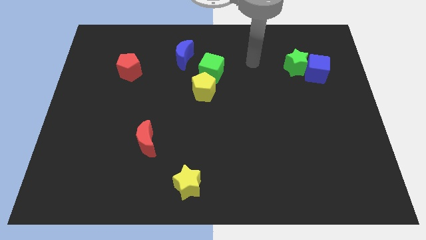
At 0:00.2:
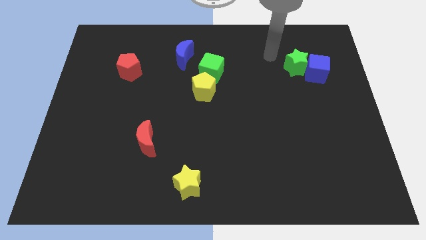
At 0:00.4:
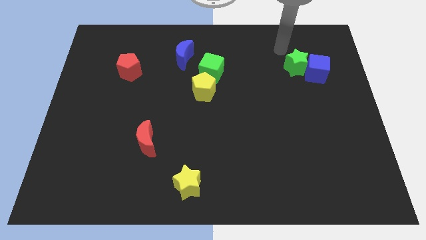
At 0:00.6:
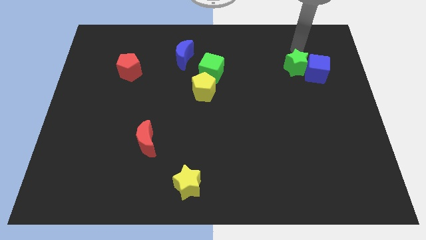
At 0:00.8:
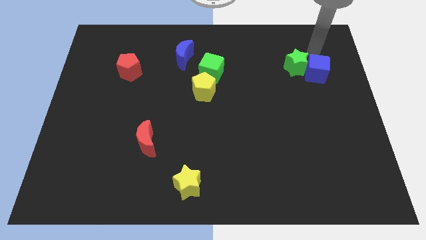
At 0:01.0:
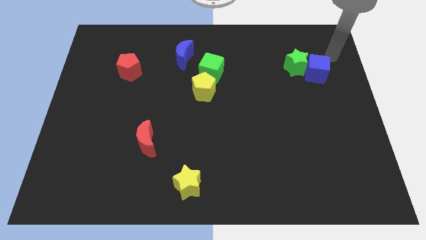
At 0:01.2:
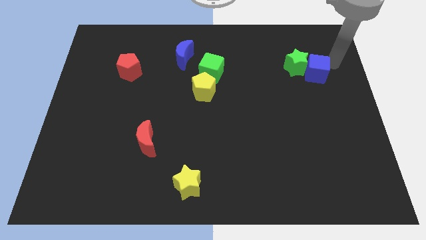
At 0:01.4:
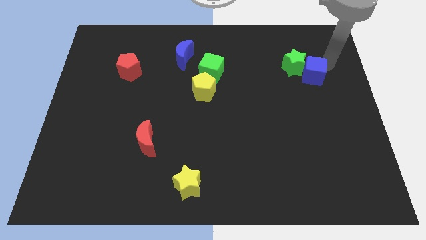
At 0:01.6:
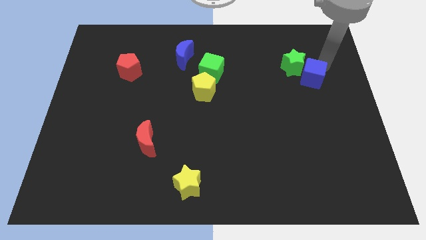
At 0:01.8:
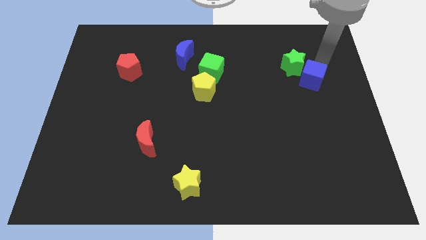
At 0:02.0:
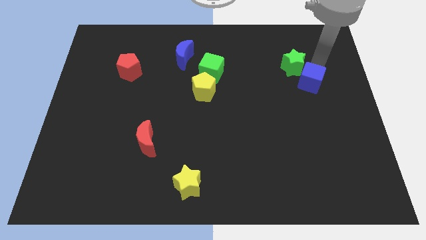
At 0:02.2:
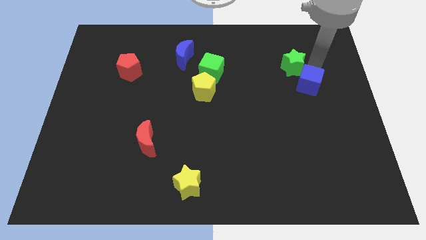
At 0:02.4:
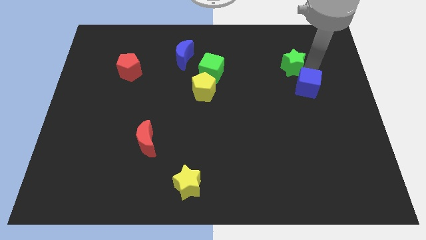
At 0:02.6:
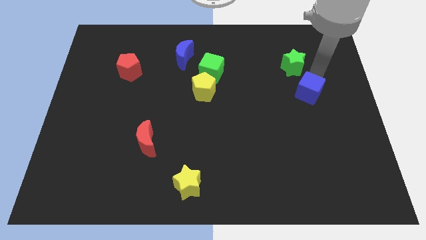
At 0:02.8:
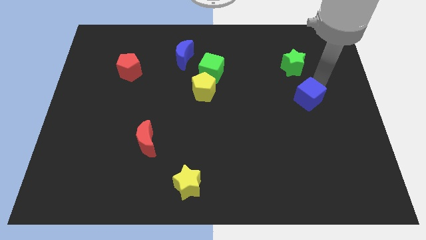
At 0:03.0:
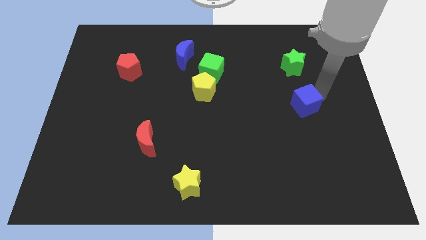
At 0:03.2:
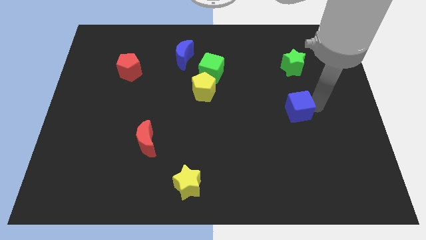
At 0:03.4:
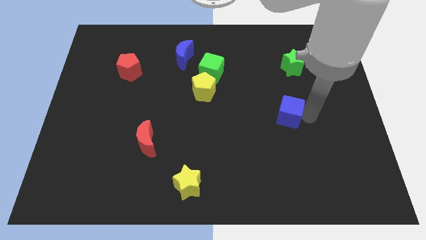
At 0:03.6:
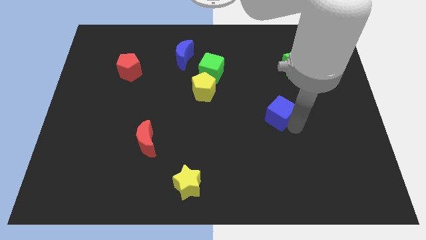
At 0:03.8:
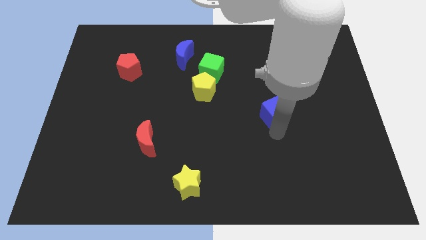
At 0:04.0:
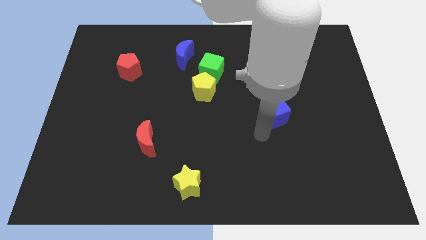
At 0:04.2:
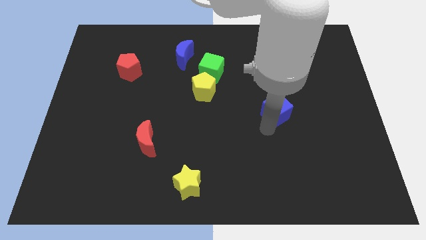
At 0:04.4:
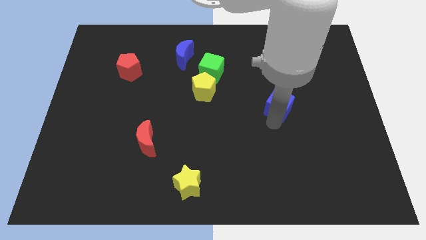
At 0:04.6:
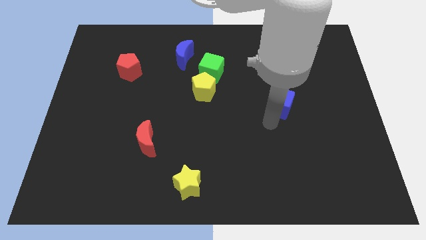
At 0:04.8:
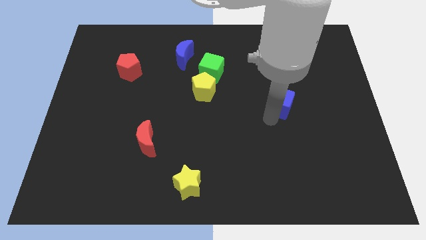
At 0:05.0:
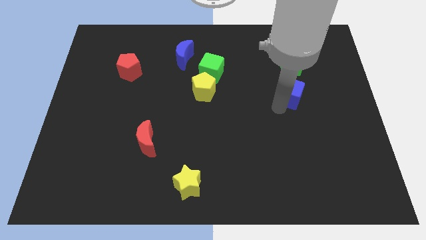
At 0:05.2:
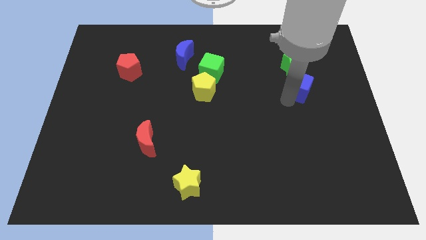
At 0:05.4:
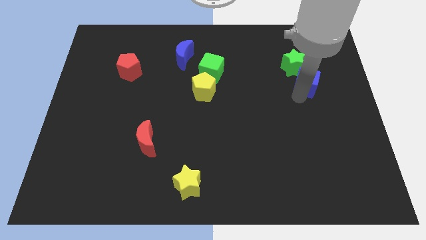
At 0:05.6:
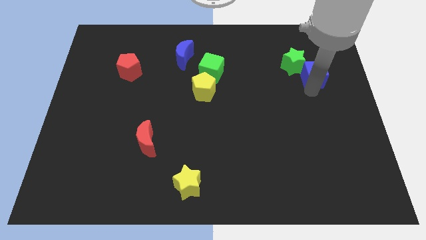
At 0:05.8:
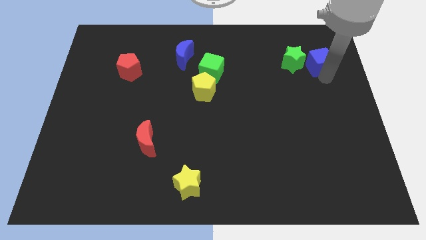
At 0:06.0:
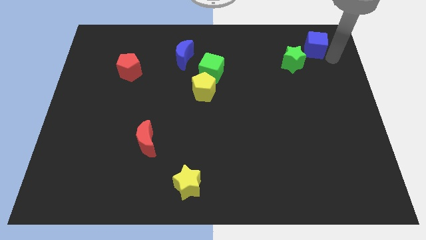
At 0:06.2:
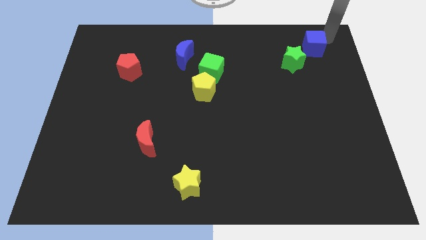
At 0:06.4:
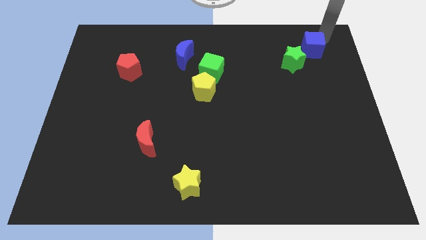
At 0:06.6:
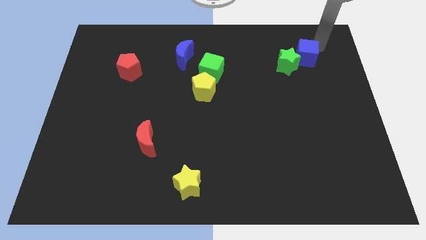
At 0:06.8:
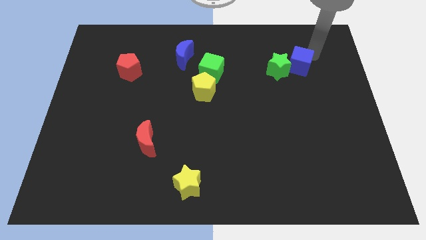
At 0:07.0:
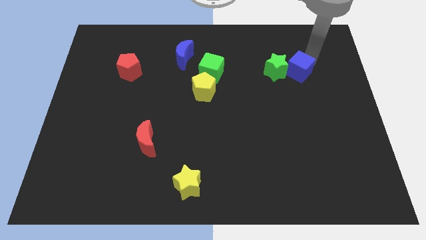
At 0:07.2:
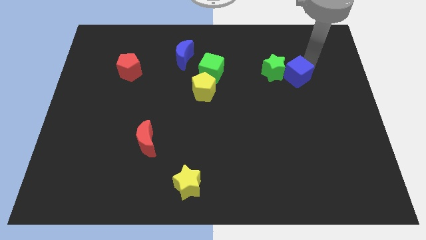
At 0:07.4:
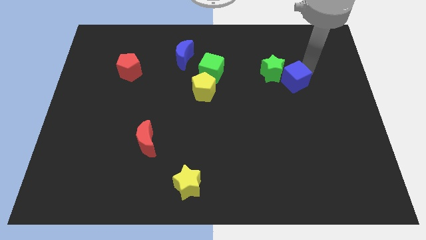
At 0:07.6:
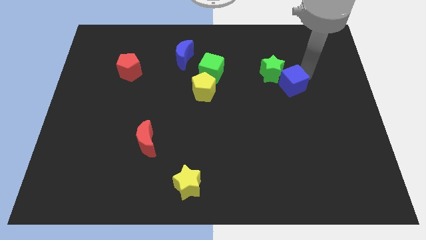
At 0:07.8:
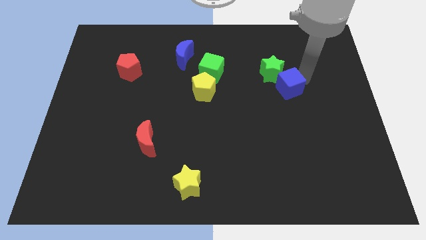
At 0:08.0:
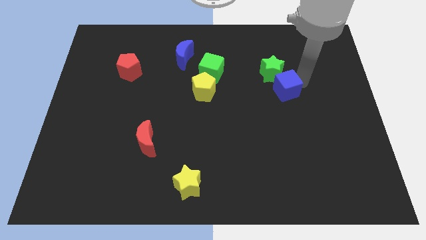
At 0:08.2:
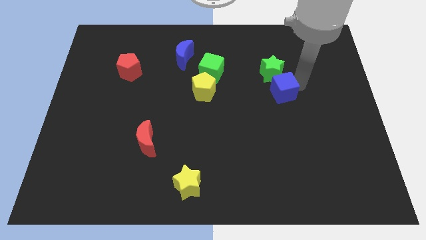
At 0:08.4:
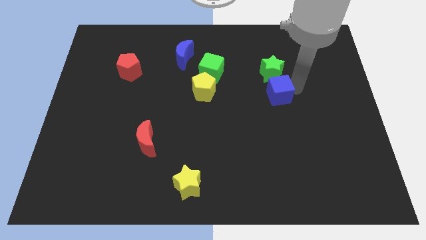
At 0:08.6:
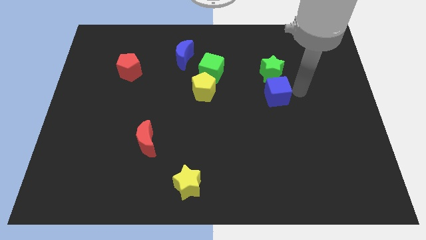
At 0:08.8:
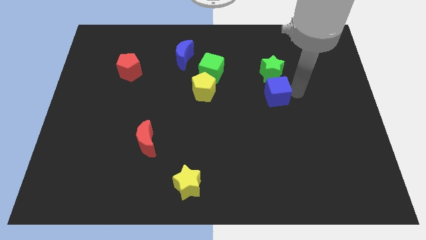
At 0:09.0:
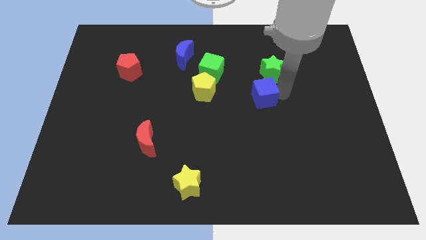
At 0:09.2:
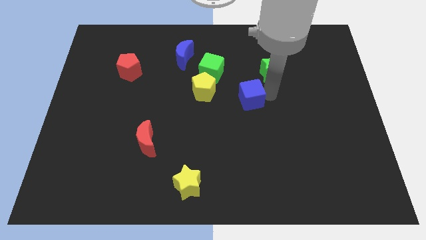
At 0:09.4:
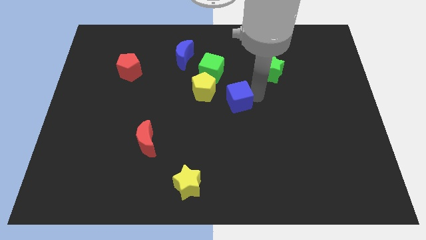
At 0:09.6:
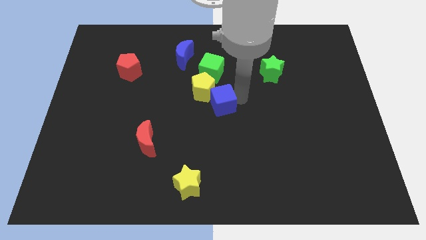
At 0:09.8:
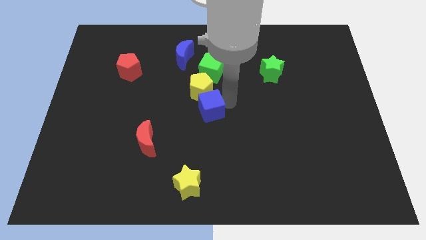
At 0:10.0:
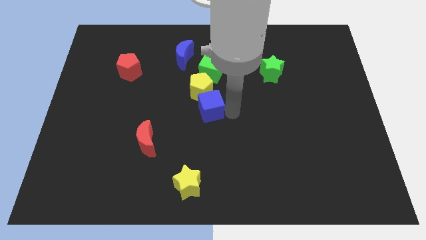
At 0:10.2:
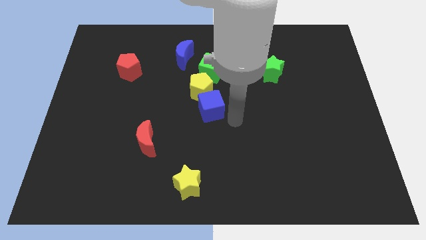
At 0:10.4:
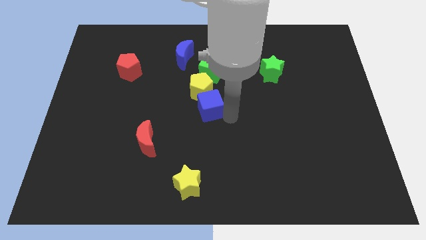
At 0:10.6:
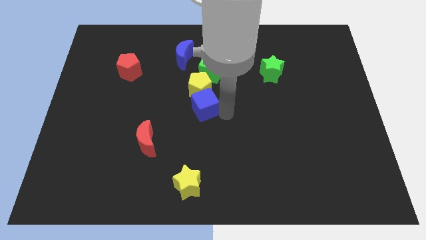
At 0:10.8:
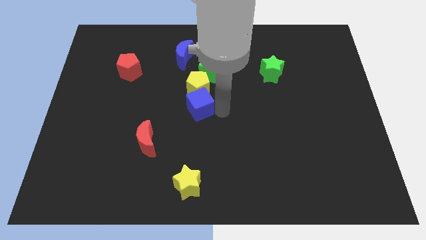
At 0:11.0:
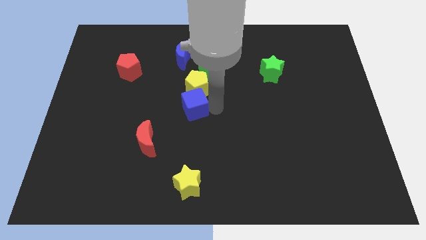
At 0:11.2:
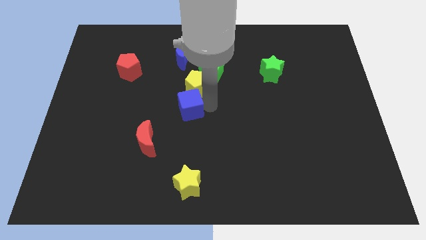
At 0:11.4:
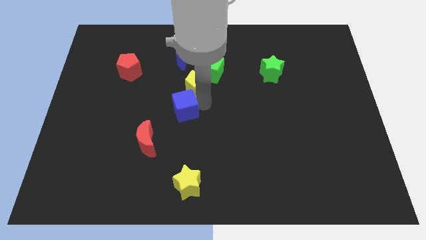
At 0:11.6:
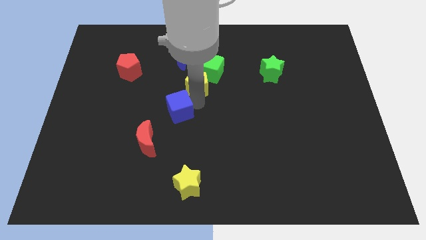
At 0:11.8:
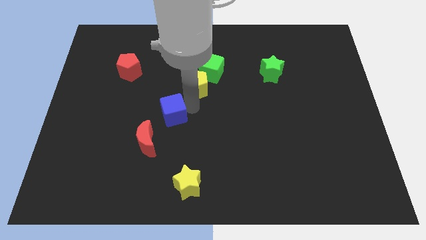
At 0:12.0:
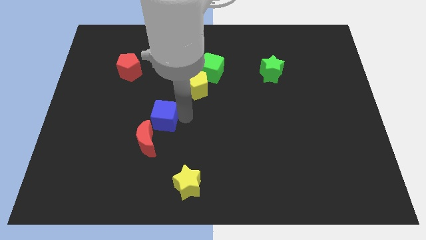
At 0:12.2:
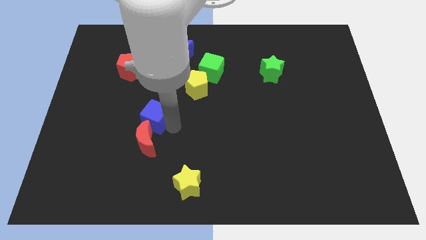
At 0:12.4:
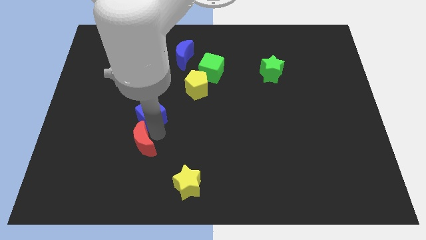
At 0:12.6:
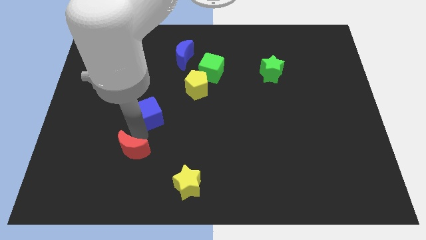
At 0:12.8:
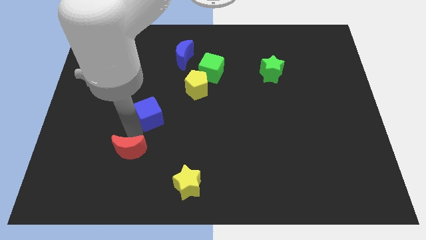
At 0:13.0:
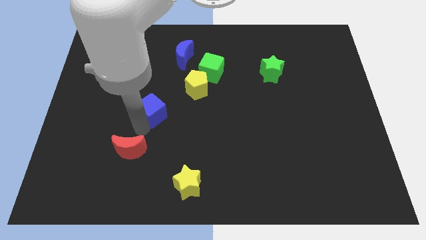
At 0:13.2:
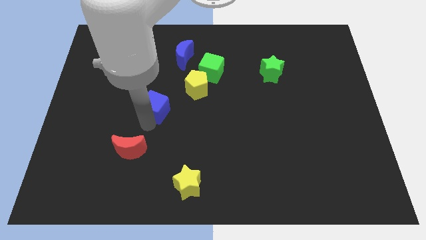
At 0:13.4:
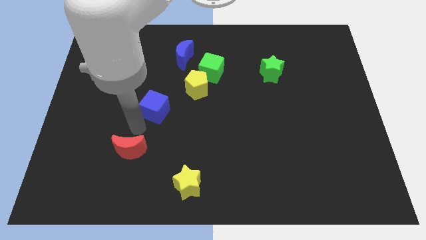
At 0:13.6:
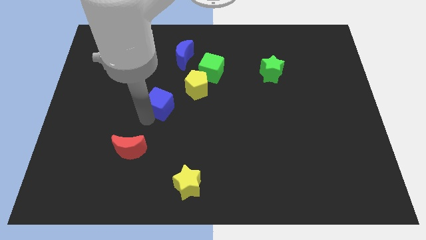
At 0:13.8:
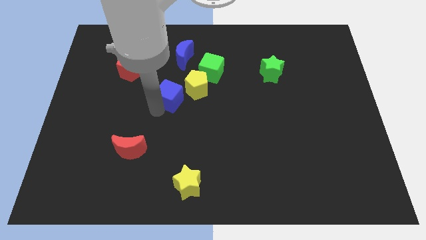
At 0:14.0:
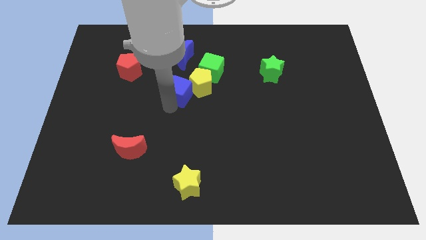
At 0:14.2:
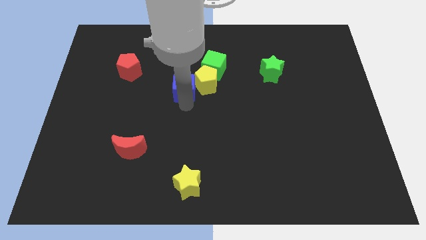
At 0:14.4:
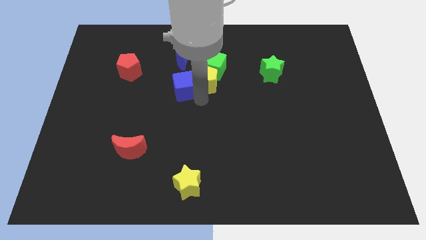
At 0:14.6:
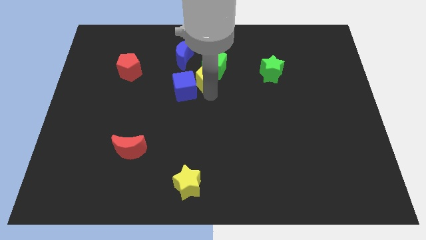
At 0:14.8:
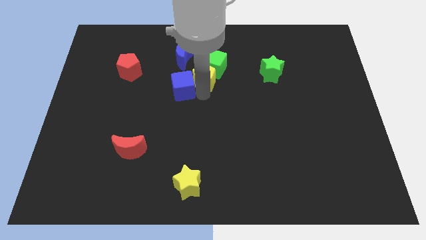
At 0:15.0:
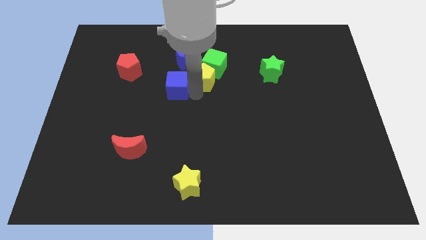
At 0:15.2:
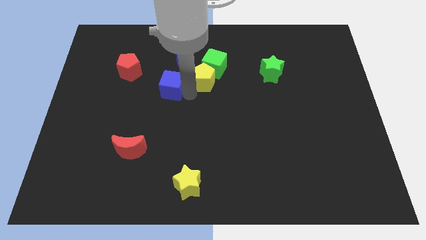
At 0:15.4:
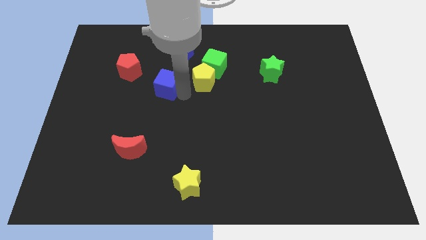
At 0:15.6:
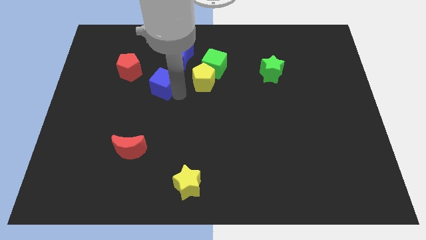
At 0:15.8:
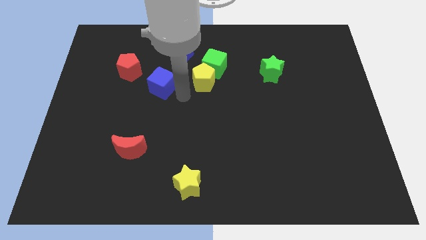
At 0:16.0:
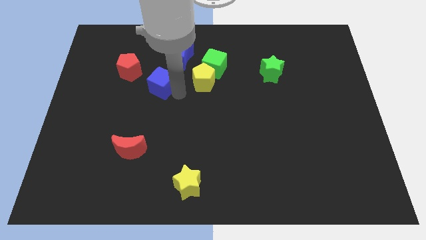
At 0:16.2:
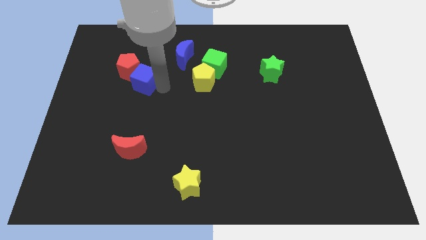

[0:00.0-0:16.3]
put the blue cube towards the red pentagon
